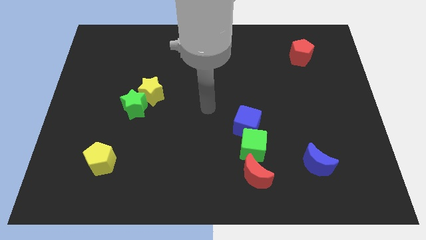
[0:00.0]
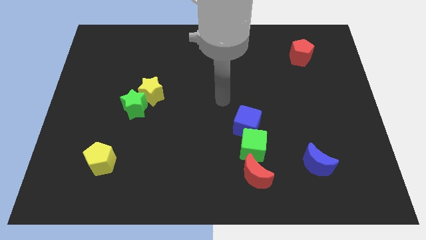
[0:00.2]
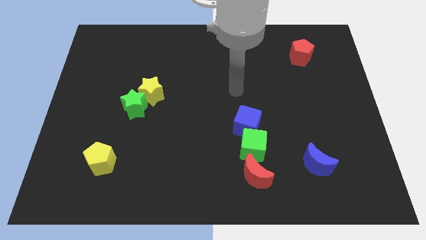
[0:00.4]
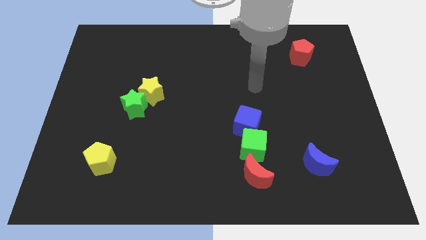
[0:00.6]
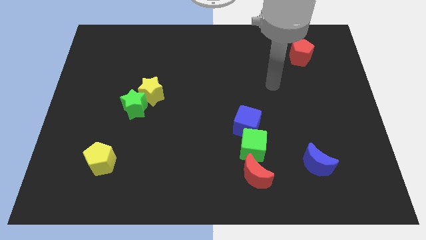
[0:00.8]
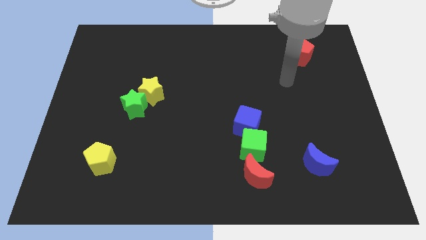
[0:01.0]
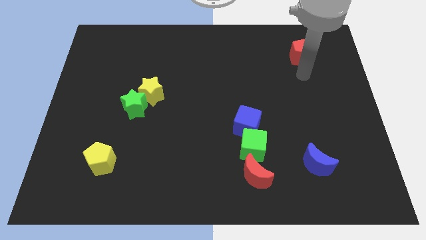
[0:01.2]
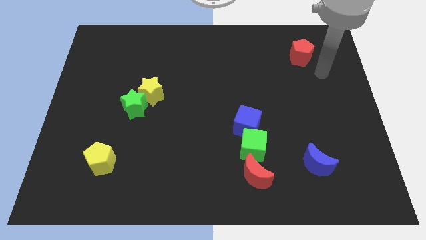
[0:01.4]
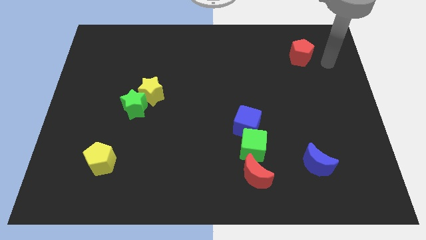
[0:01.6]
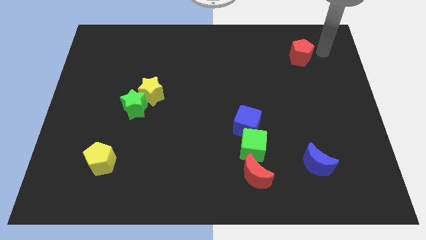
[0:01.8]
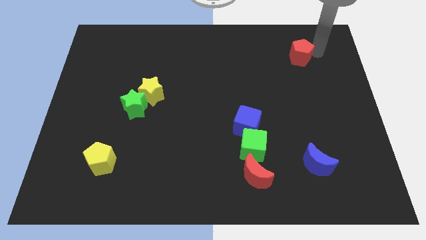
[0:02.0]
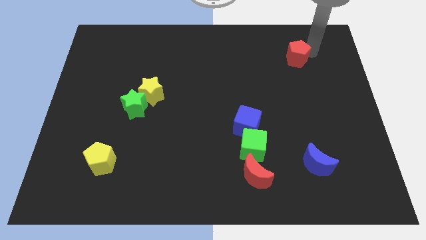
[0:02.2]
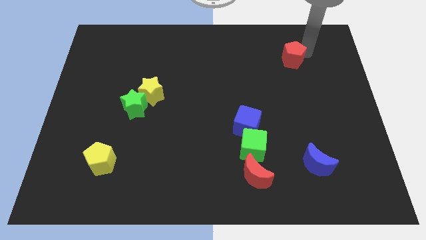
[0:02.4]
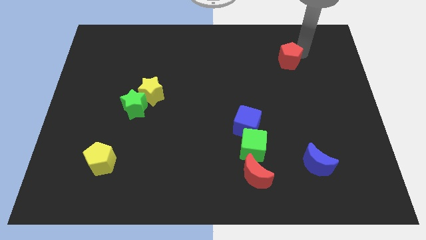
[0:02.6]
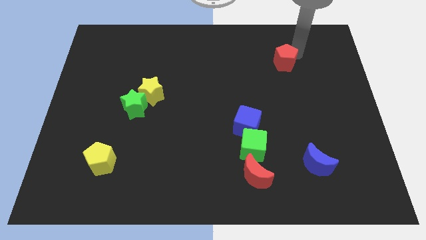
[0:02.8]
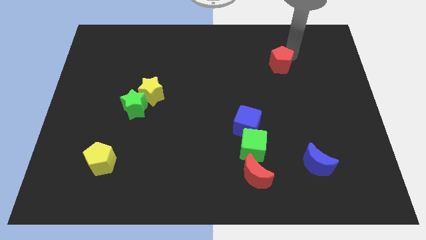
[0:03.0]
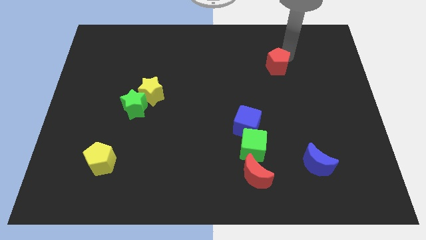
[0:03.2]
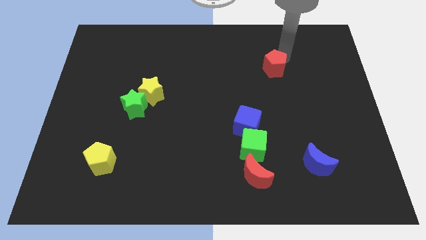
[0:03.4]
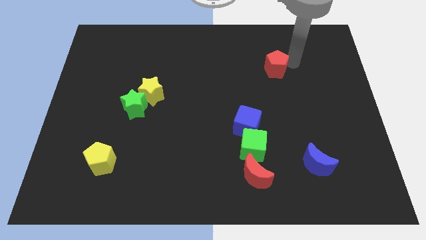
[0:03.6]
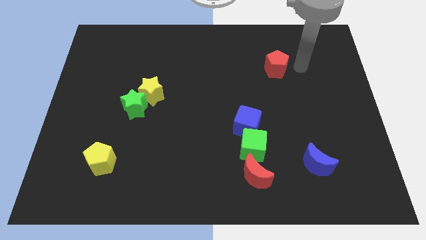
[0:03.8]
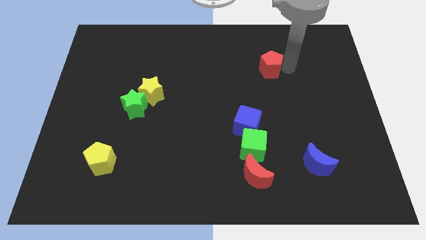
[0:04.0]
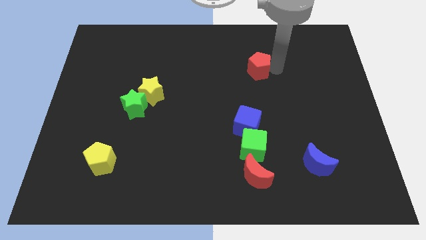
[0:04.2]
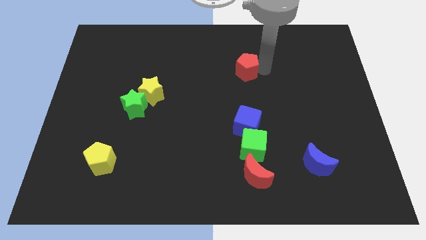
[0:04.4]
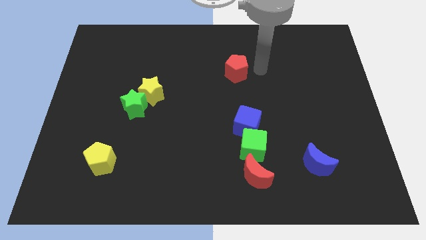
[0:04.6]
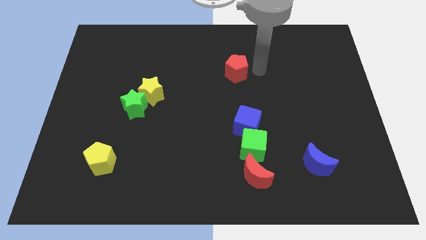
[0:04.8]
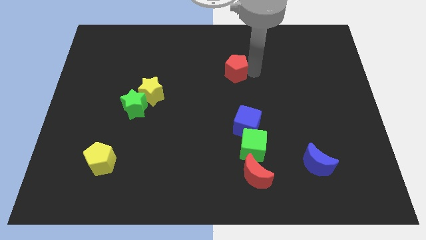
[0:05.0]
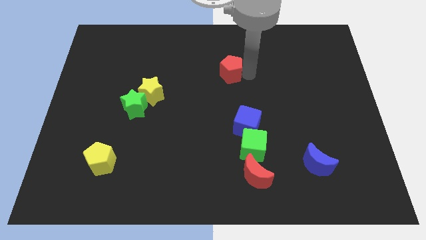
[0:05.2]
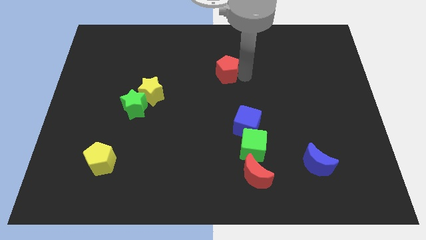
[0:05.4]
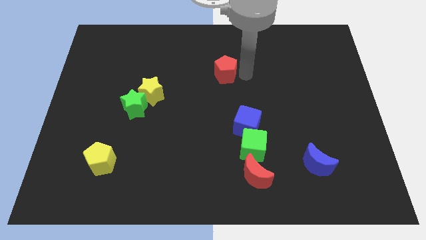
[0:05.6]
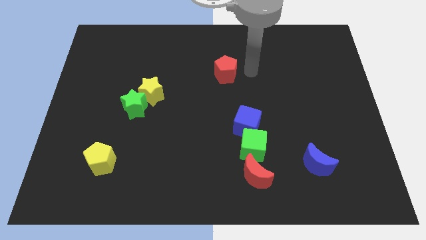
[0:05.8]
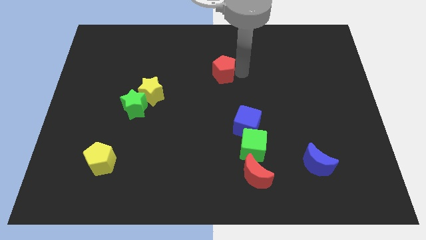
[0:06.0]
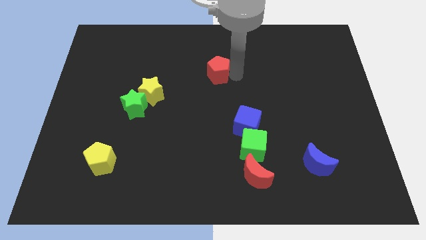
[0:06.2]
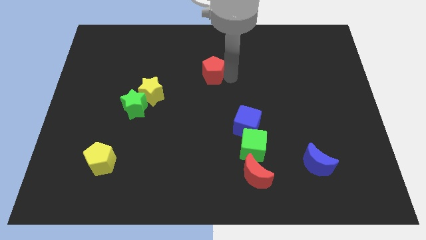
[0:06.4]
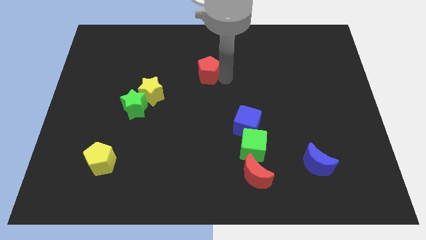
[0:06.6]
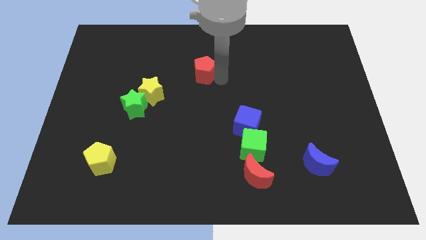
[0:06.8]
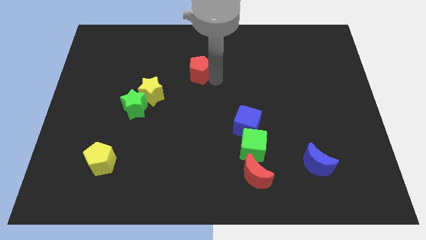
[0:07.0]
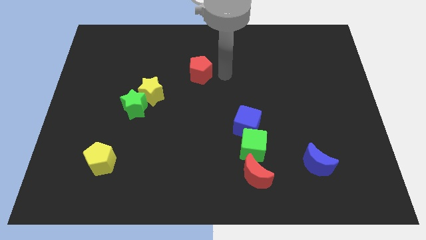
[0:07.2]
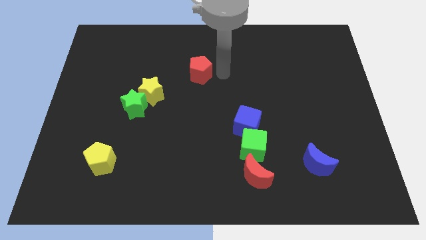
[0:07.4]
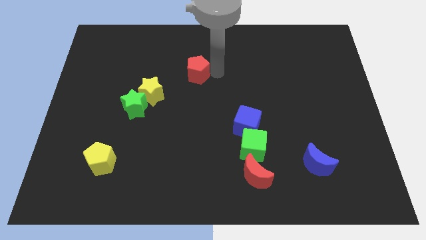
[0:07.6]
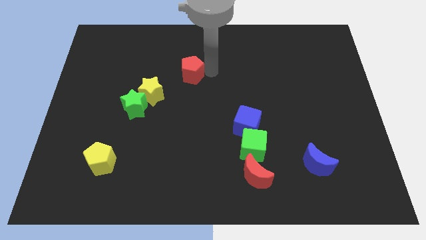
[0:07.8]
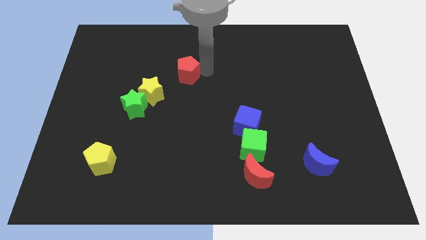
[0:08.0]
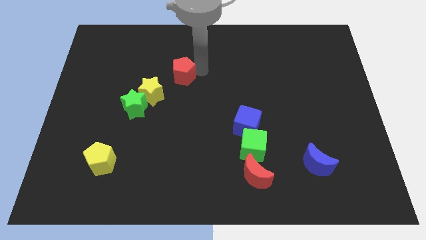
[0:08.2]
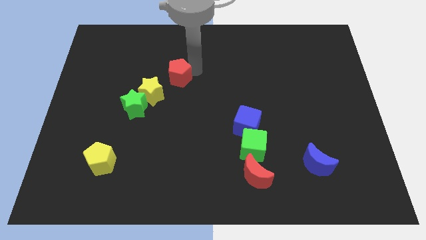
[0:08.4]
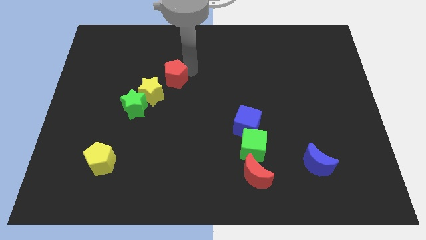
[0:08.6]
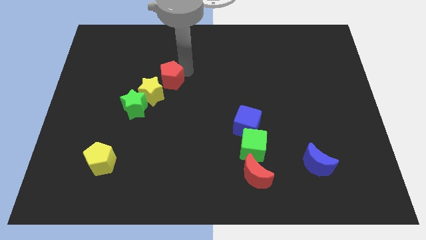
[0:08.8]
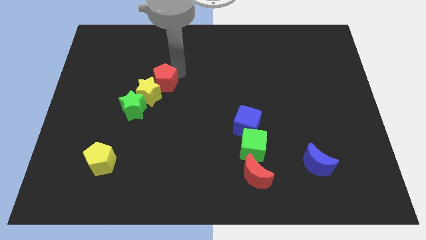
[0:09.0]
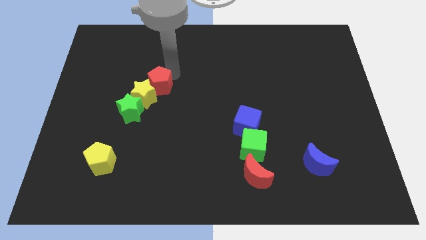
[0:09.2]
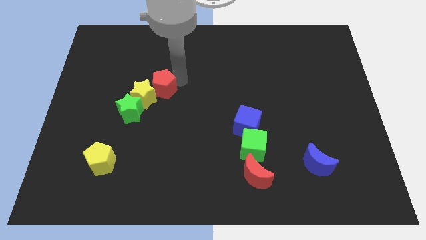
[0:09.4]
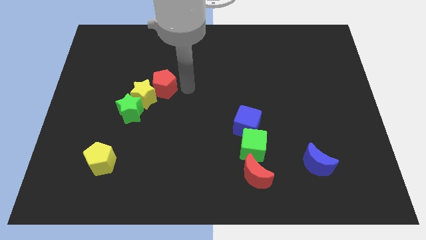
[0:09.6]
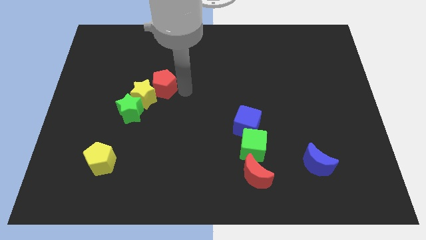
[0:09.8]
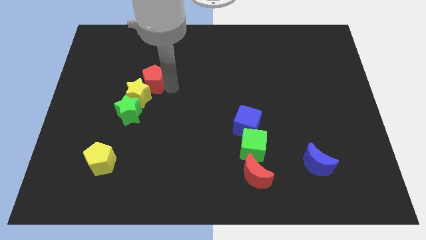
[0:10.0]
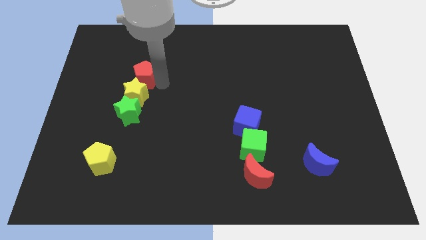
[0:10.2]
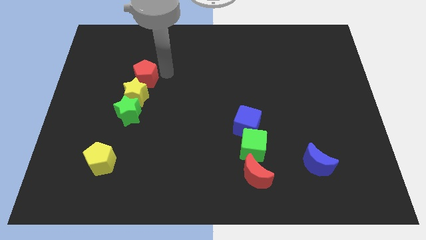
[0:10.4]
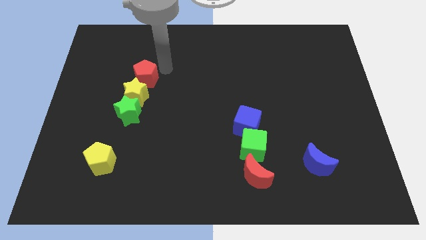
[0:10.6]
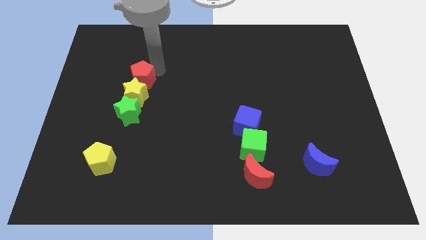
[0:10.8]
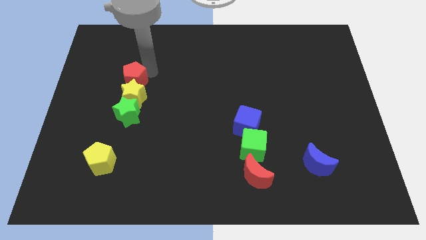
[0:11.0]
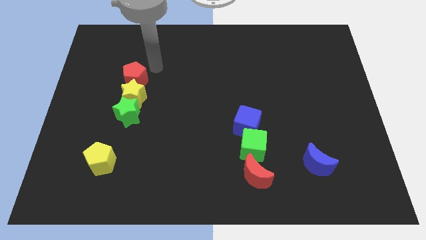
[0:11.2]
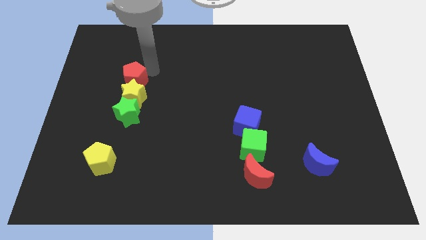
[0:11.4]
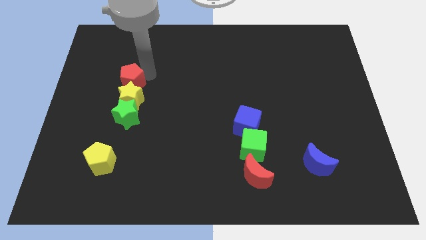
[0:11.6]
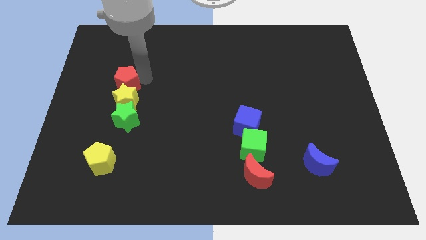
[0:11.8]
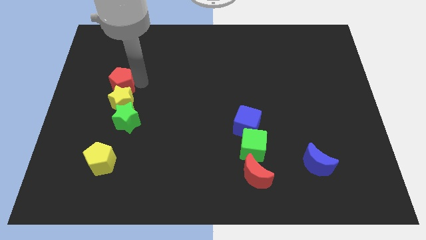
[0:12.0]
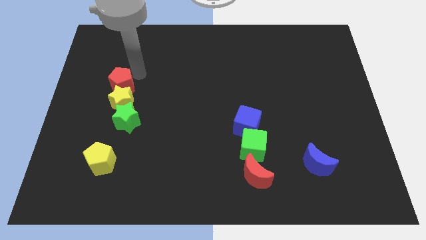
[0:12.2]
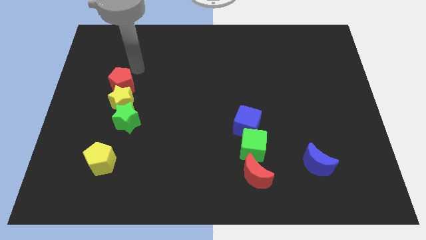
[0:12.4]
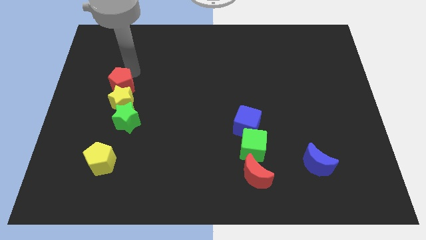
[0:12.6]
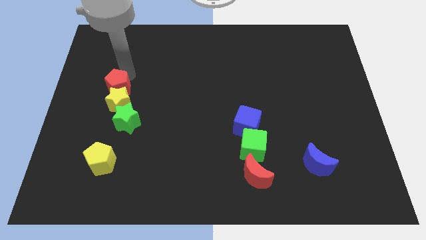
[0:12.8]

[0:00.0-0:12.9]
put the red pentagon to the top left of the green star

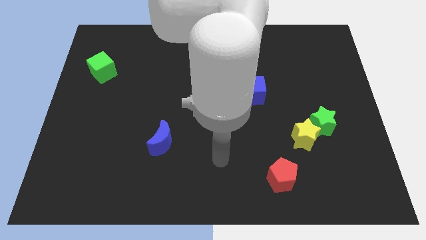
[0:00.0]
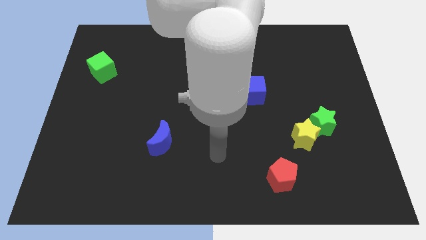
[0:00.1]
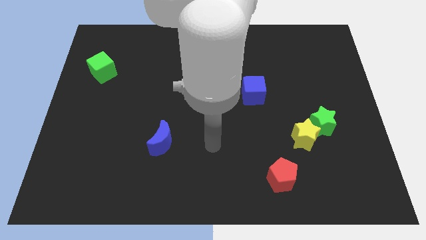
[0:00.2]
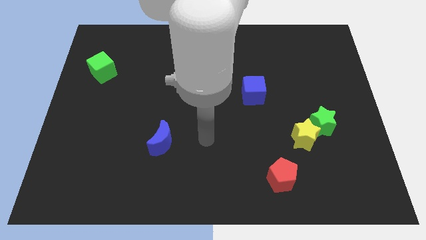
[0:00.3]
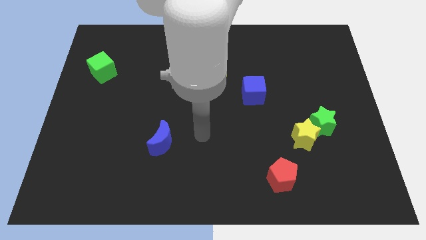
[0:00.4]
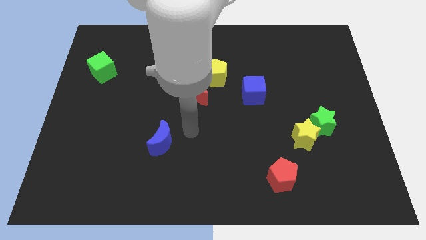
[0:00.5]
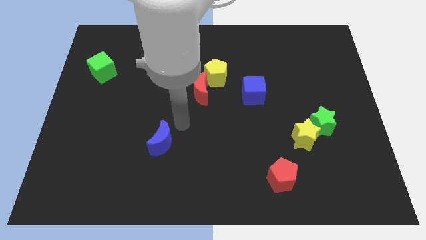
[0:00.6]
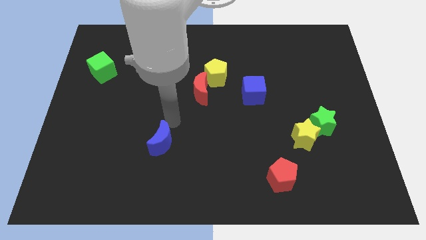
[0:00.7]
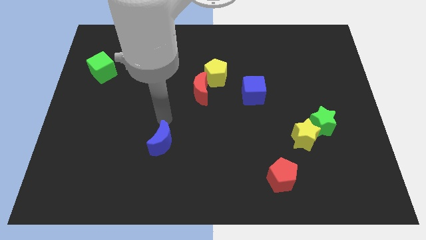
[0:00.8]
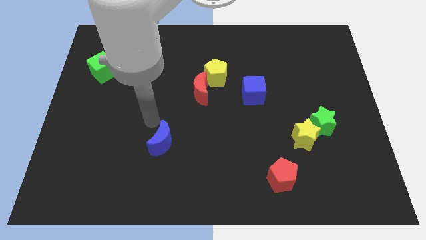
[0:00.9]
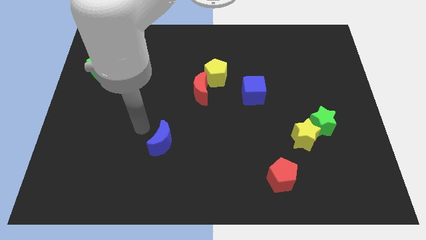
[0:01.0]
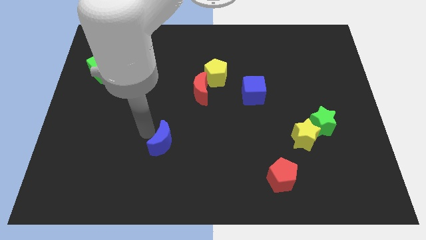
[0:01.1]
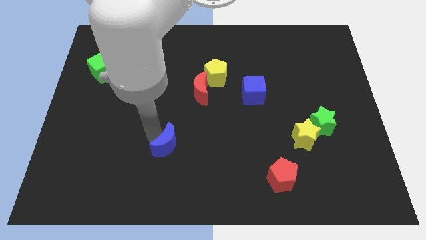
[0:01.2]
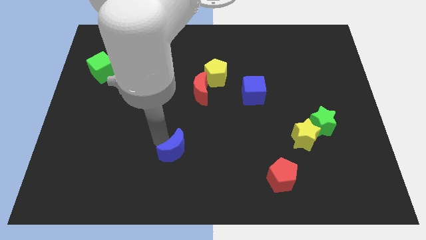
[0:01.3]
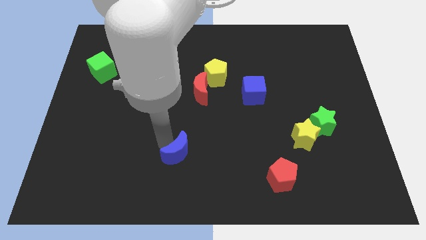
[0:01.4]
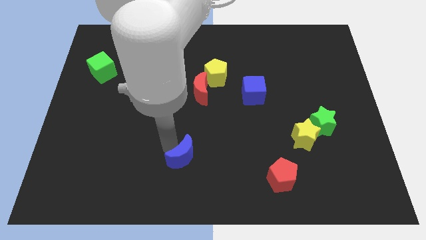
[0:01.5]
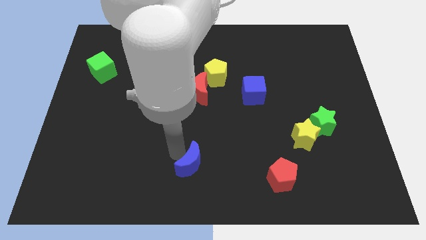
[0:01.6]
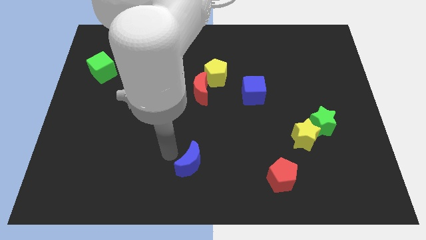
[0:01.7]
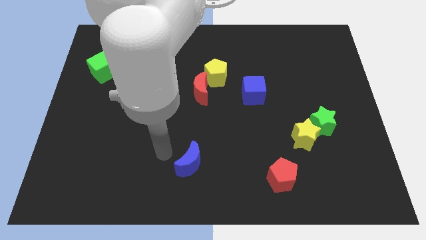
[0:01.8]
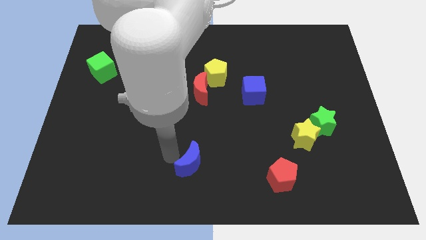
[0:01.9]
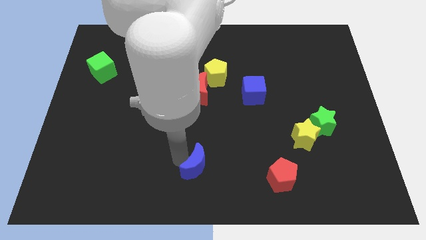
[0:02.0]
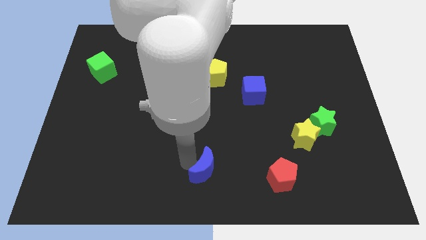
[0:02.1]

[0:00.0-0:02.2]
move the blue moon just left of the red pentagon
